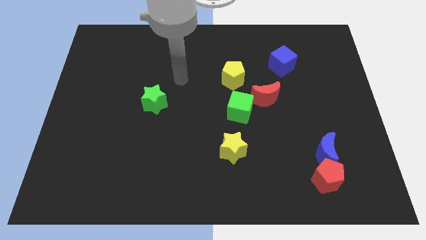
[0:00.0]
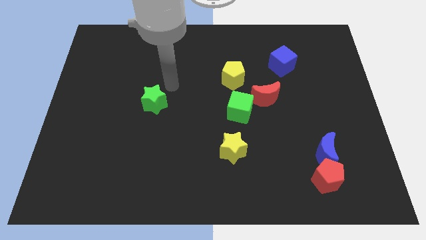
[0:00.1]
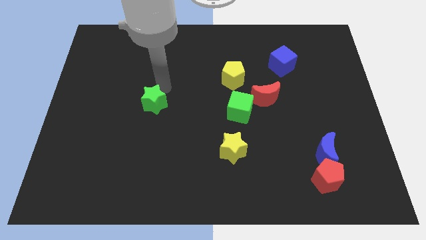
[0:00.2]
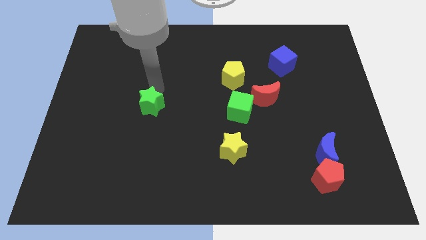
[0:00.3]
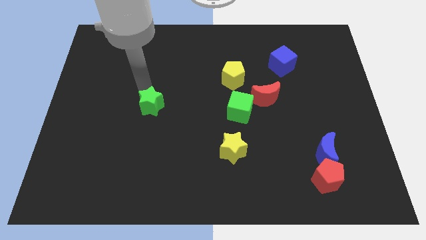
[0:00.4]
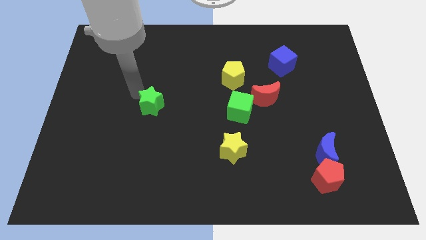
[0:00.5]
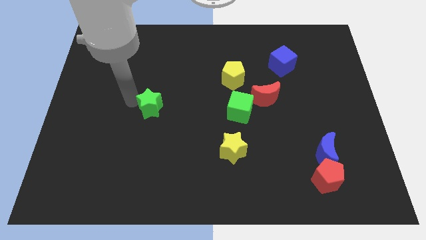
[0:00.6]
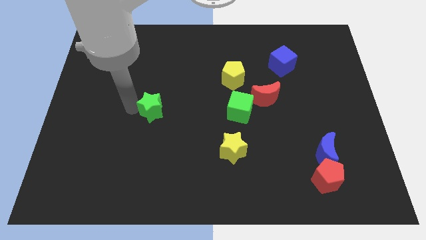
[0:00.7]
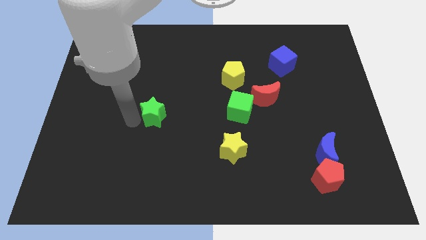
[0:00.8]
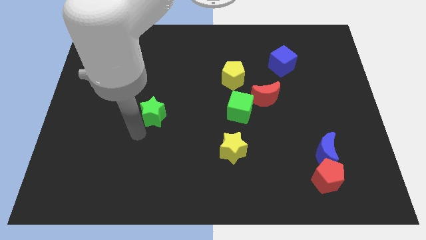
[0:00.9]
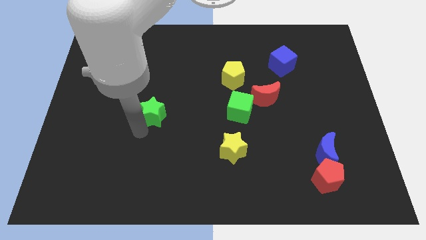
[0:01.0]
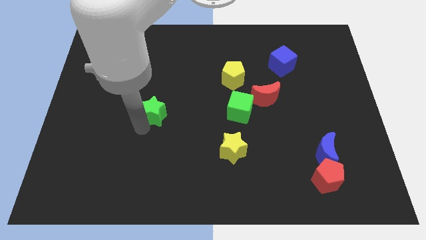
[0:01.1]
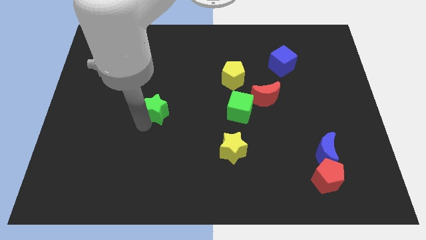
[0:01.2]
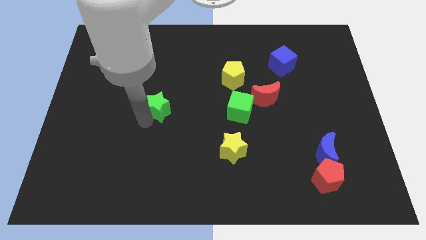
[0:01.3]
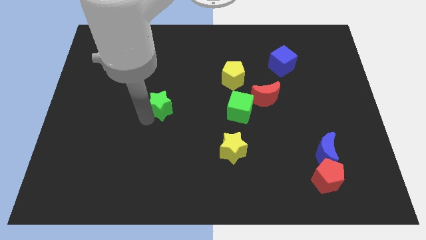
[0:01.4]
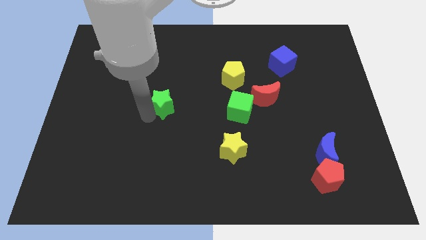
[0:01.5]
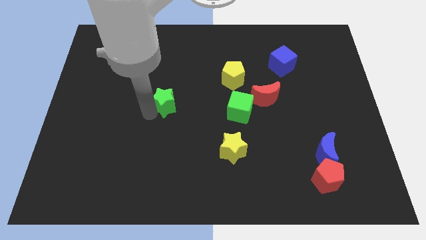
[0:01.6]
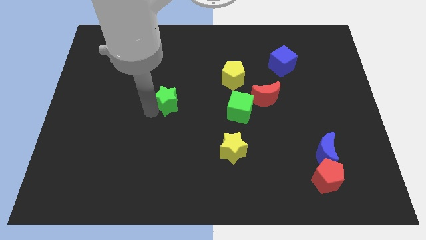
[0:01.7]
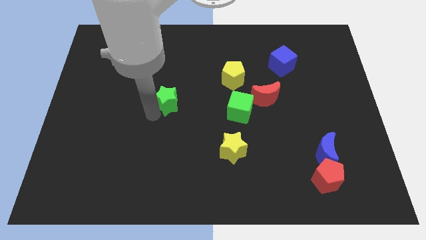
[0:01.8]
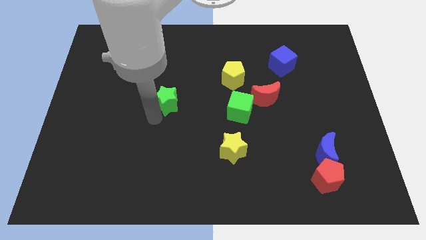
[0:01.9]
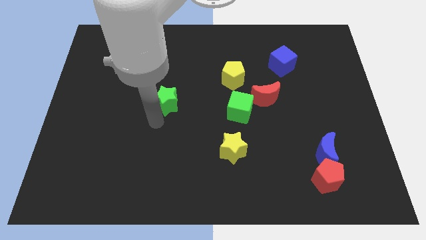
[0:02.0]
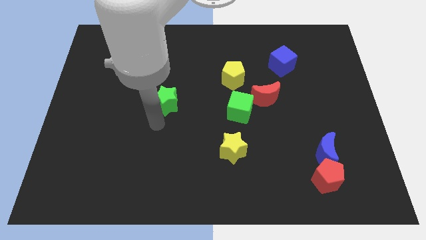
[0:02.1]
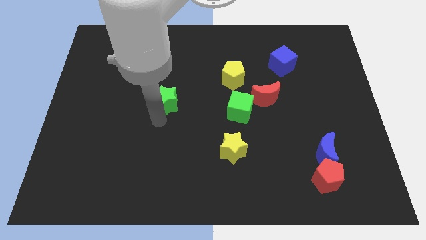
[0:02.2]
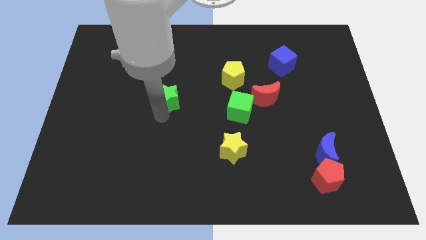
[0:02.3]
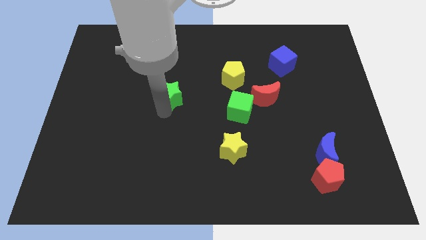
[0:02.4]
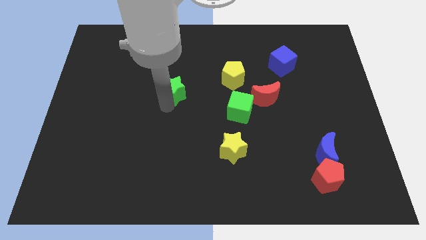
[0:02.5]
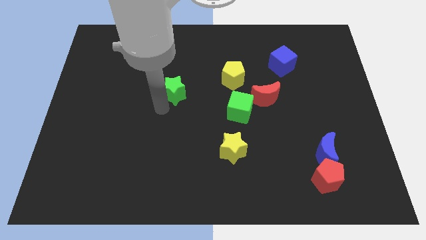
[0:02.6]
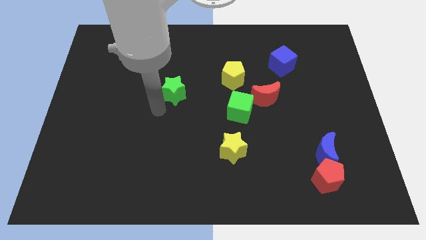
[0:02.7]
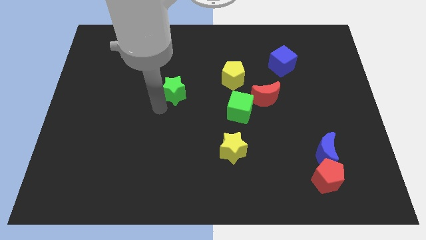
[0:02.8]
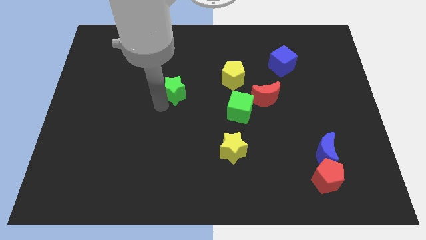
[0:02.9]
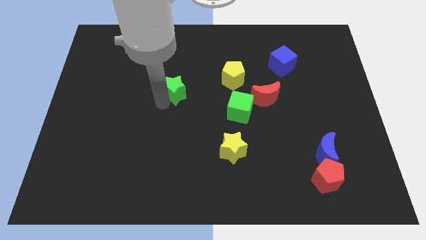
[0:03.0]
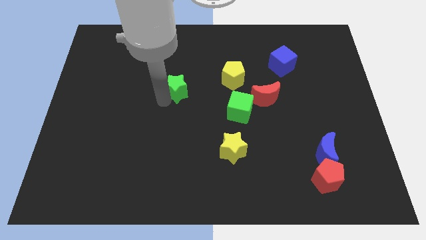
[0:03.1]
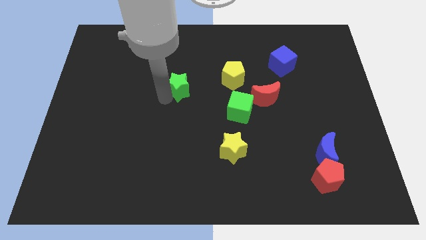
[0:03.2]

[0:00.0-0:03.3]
slightly move the green star upwards and right

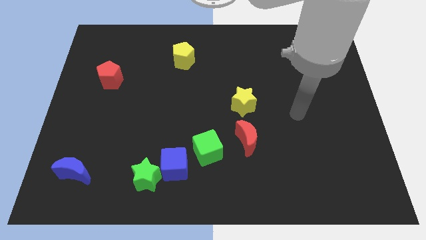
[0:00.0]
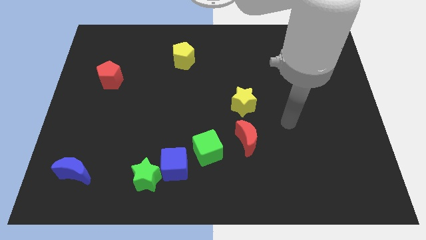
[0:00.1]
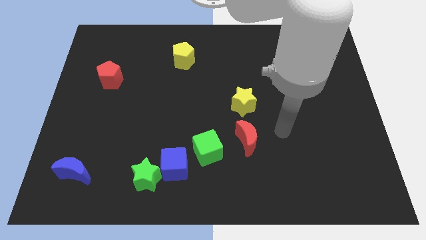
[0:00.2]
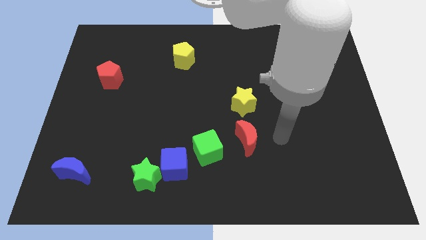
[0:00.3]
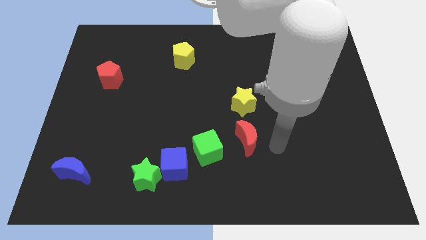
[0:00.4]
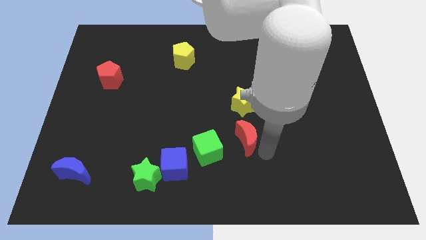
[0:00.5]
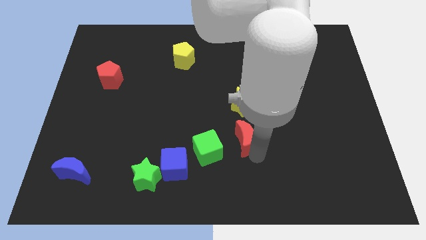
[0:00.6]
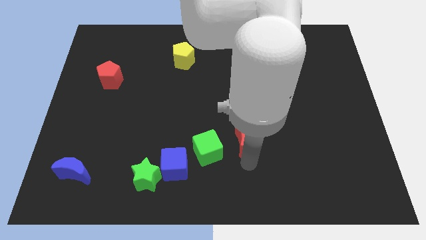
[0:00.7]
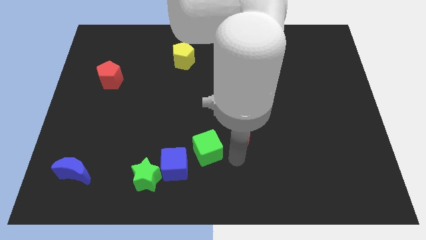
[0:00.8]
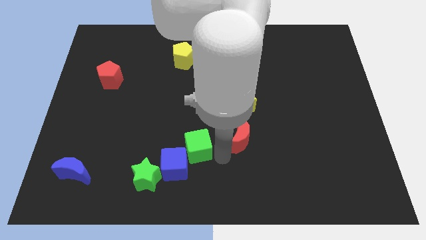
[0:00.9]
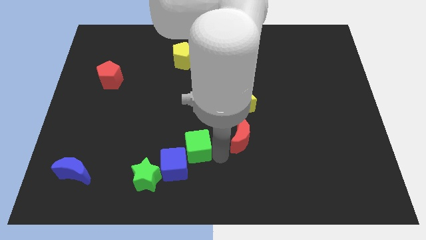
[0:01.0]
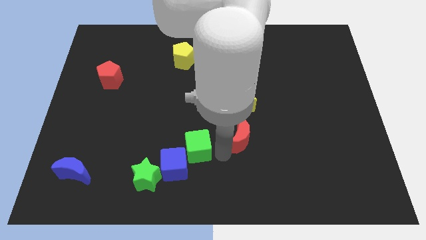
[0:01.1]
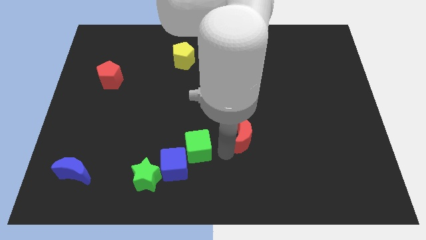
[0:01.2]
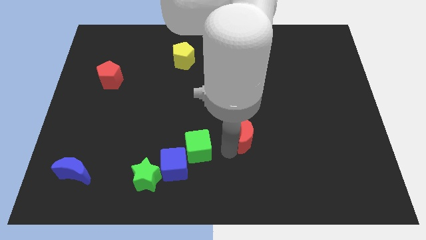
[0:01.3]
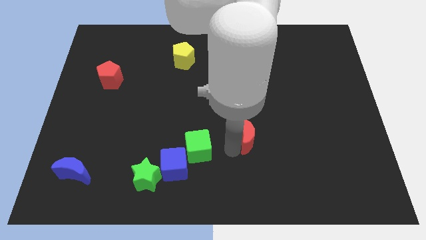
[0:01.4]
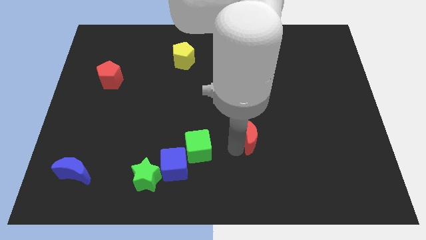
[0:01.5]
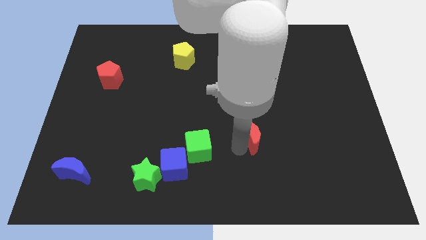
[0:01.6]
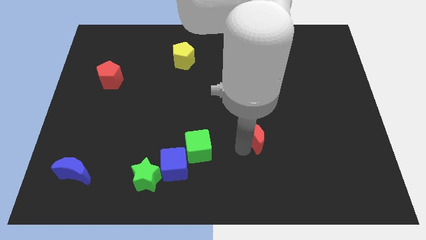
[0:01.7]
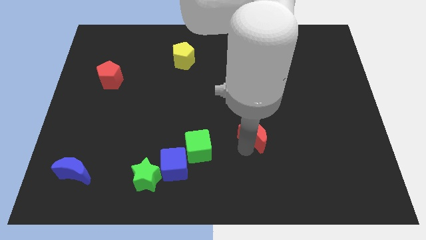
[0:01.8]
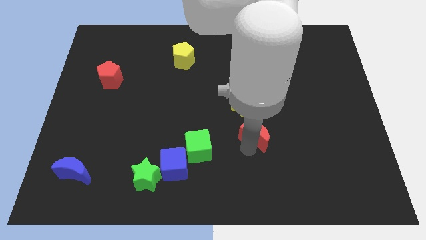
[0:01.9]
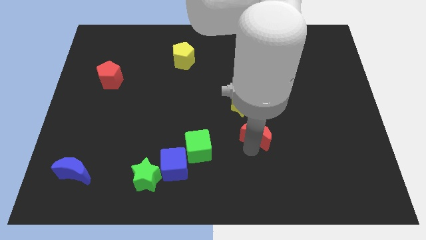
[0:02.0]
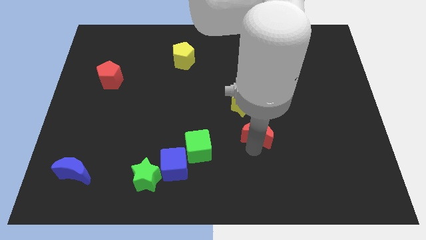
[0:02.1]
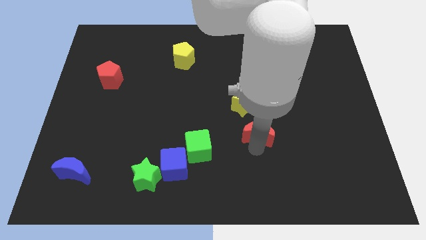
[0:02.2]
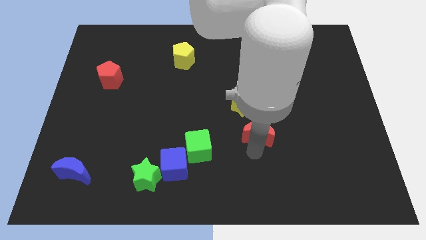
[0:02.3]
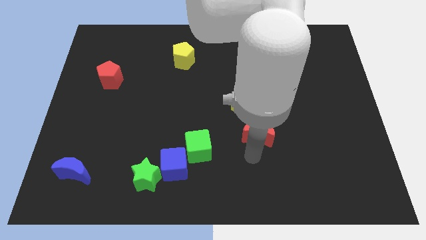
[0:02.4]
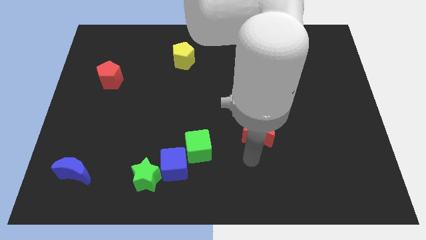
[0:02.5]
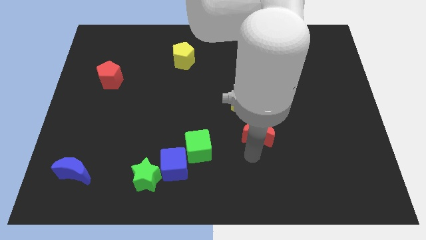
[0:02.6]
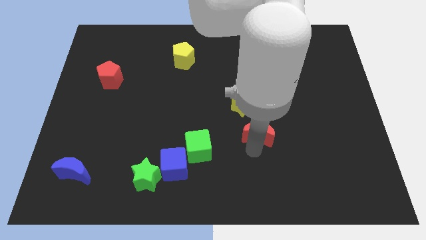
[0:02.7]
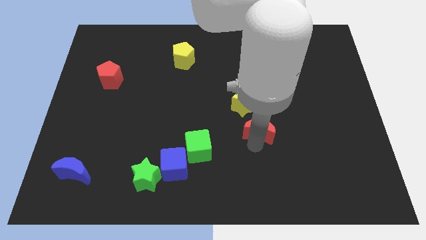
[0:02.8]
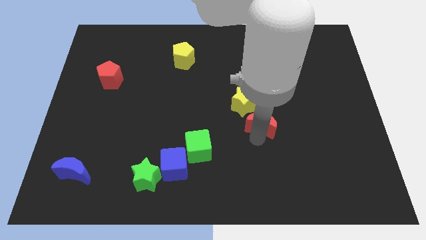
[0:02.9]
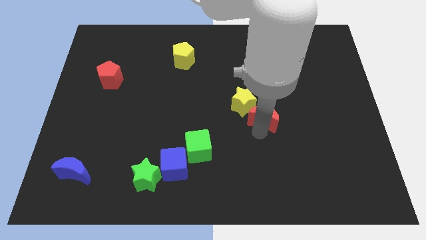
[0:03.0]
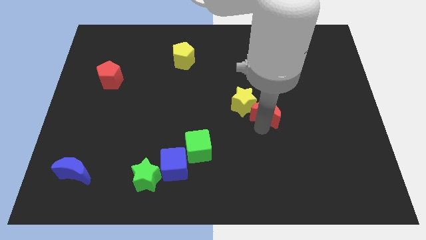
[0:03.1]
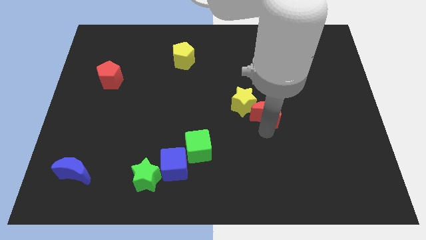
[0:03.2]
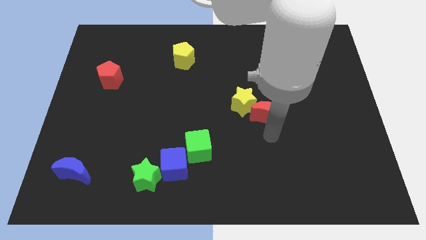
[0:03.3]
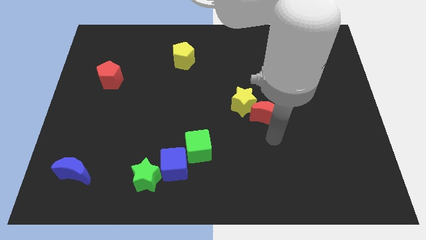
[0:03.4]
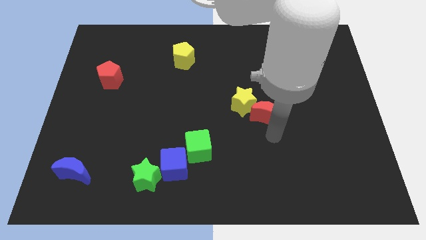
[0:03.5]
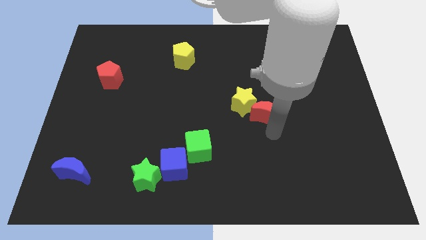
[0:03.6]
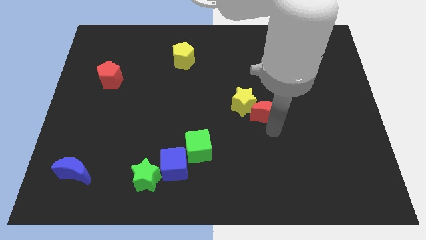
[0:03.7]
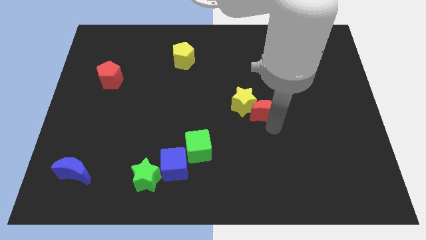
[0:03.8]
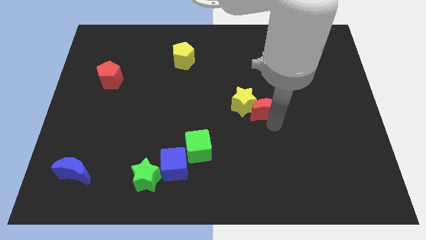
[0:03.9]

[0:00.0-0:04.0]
push the red moon a little bit up

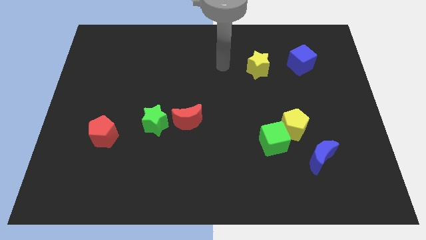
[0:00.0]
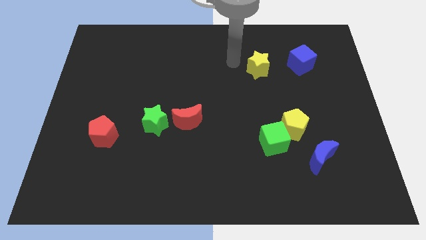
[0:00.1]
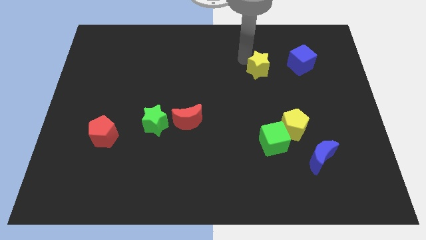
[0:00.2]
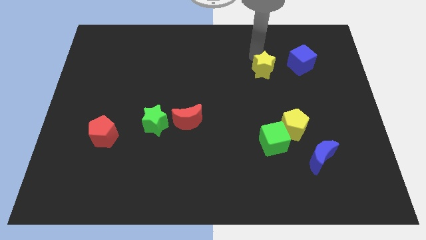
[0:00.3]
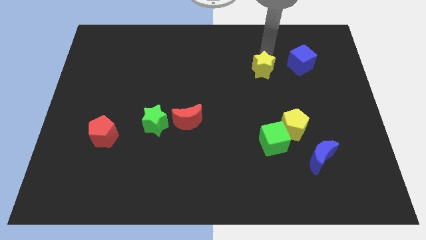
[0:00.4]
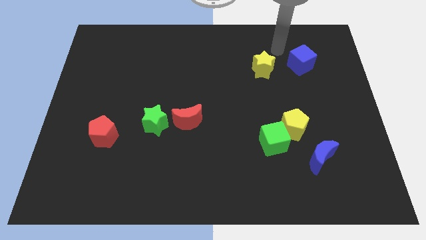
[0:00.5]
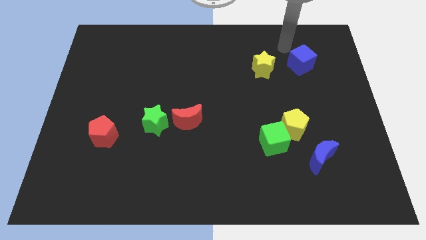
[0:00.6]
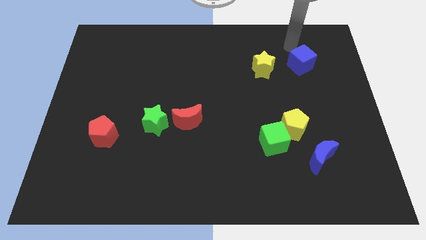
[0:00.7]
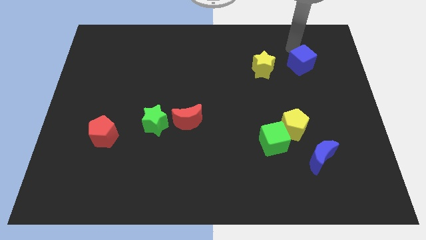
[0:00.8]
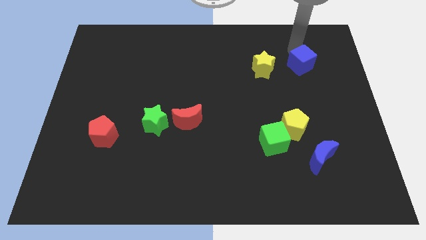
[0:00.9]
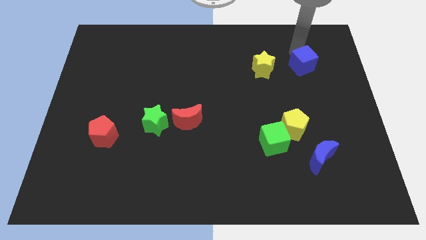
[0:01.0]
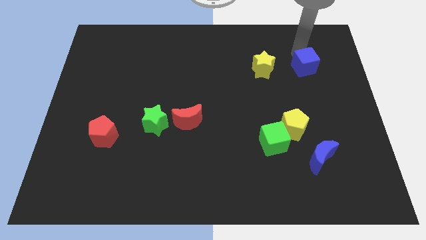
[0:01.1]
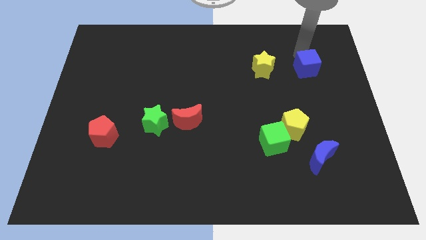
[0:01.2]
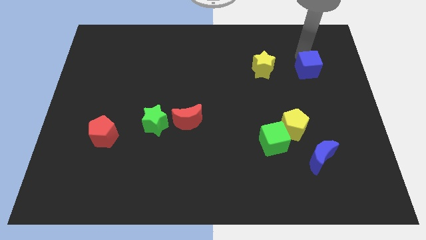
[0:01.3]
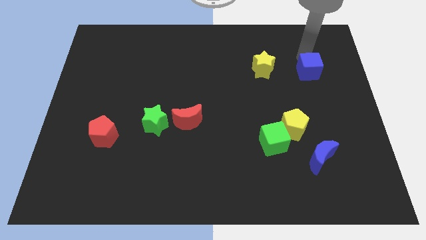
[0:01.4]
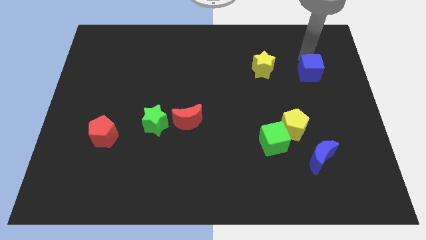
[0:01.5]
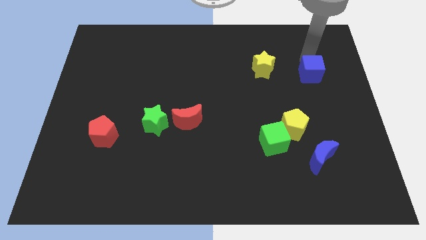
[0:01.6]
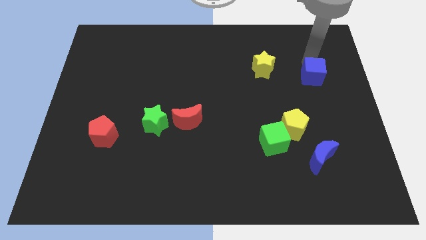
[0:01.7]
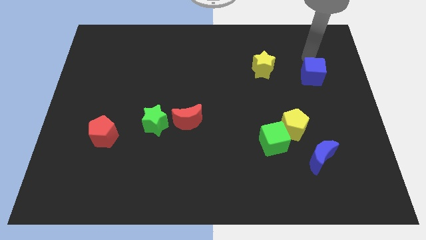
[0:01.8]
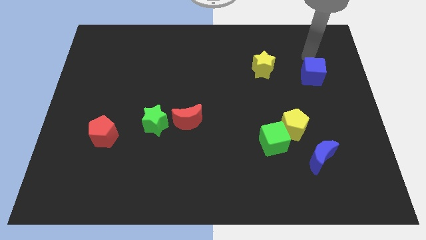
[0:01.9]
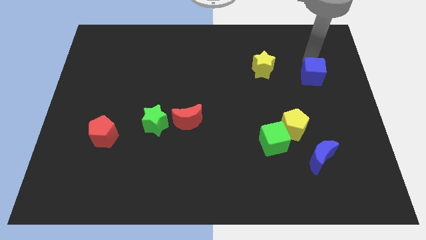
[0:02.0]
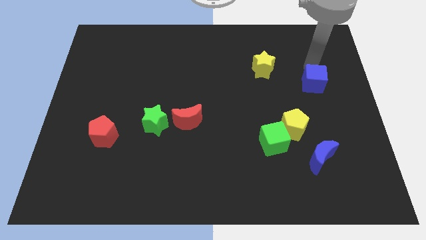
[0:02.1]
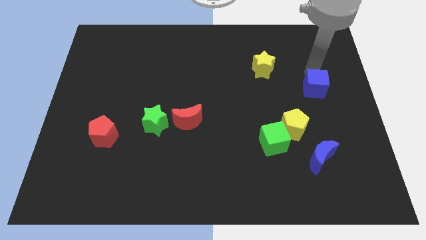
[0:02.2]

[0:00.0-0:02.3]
push the blue cube down somewhat
